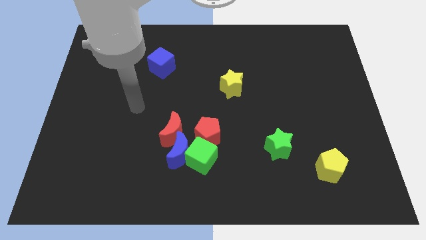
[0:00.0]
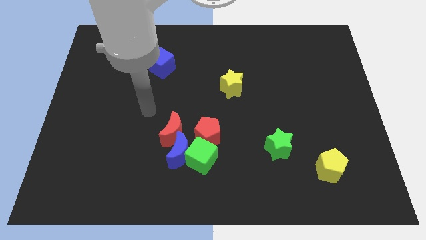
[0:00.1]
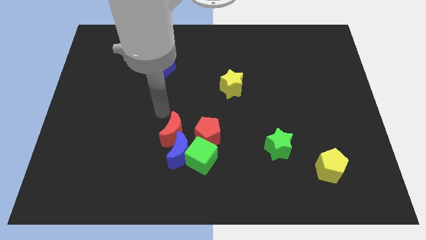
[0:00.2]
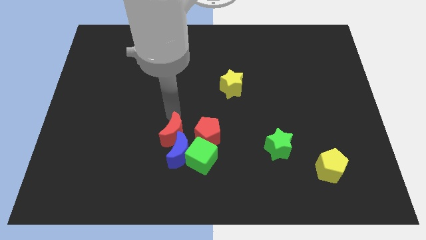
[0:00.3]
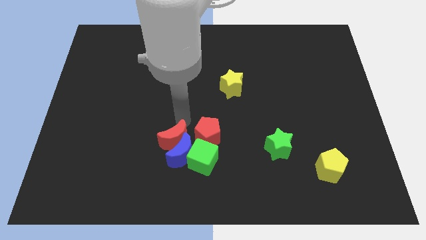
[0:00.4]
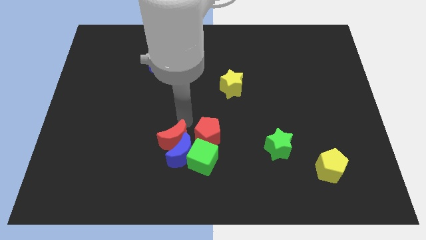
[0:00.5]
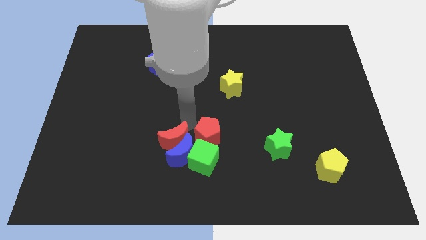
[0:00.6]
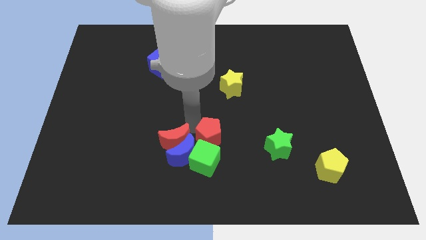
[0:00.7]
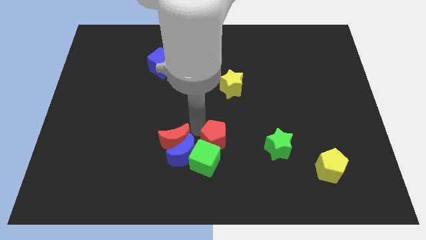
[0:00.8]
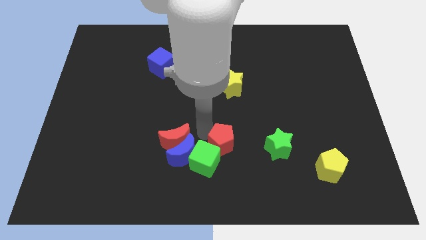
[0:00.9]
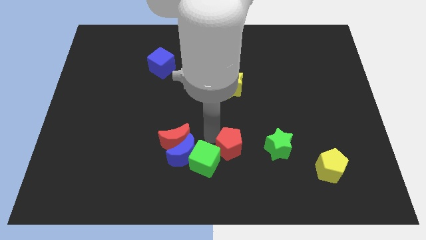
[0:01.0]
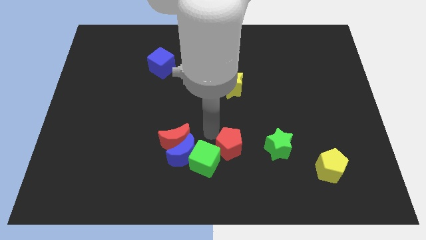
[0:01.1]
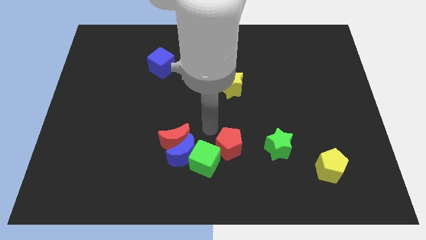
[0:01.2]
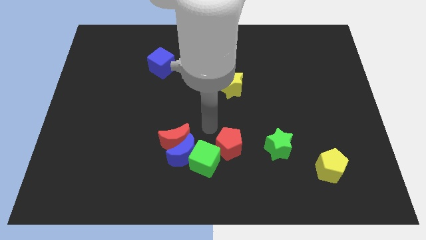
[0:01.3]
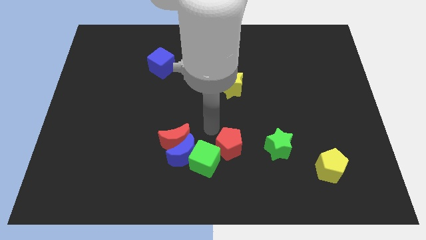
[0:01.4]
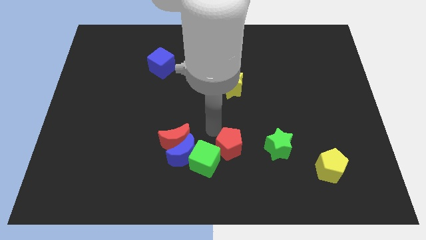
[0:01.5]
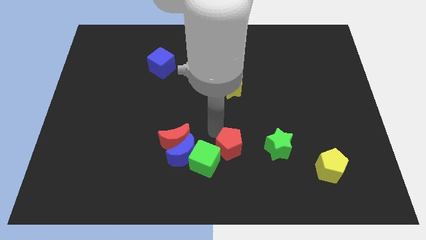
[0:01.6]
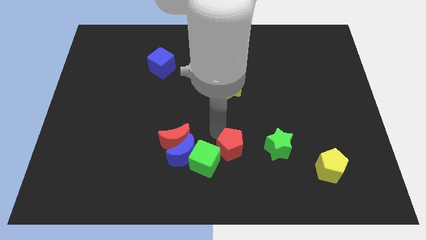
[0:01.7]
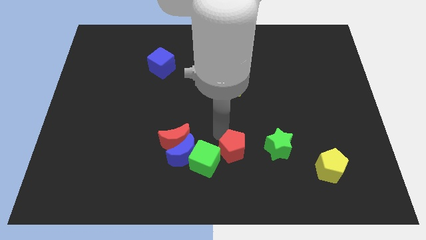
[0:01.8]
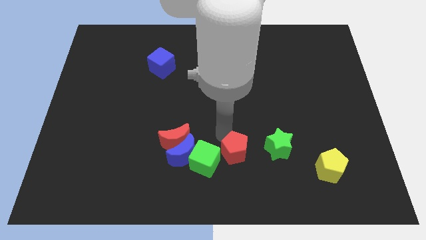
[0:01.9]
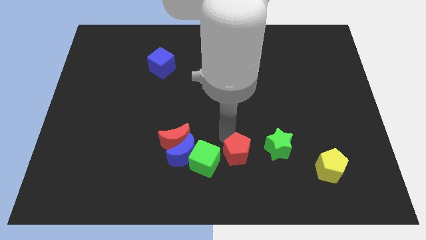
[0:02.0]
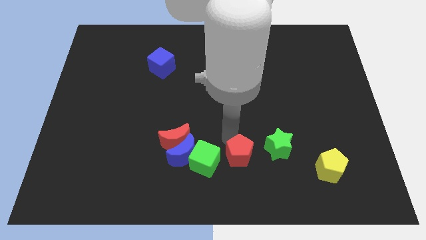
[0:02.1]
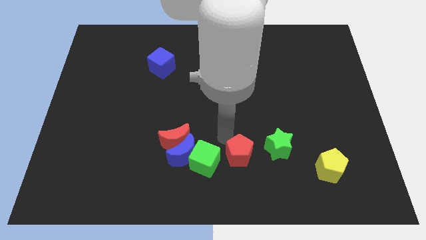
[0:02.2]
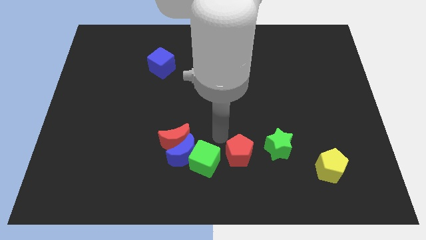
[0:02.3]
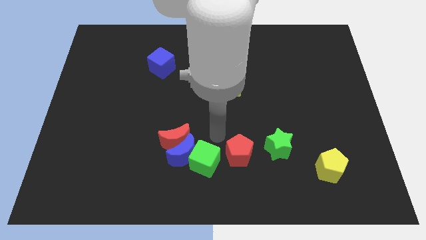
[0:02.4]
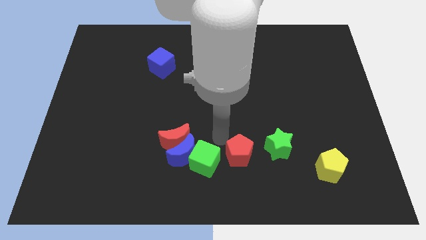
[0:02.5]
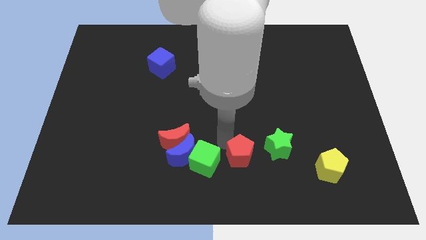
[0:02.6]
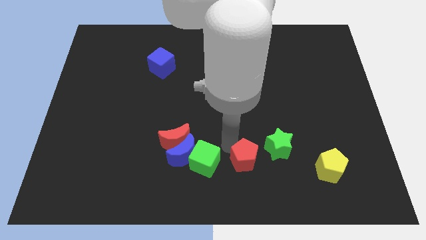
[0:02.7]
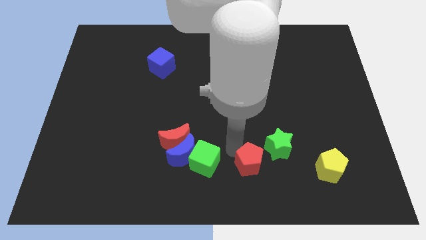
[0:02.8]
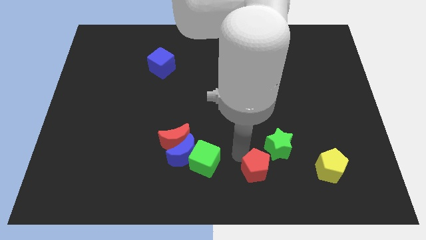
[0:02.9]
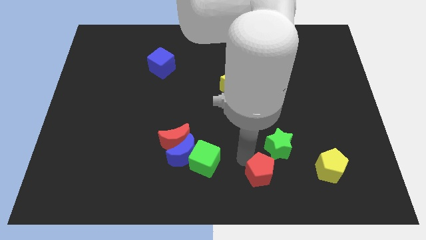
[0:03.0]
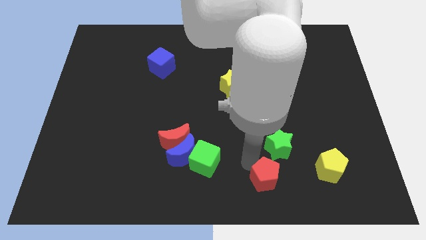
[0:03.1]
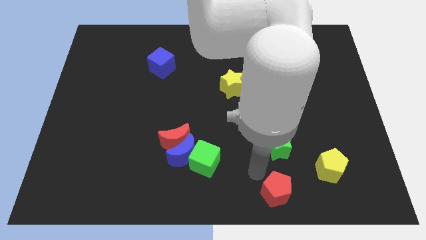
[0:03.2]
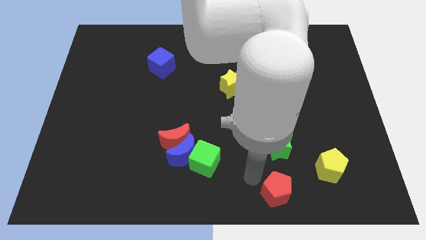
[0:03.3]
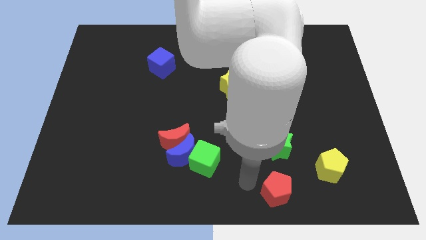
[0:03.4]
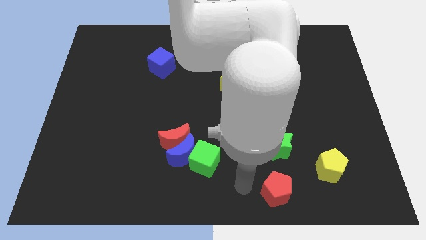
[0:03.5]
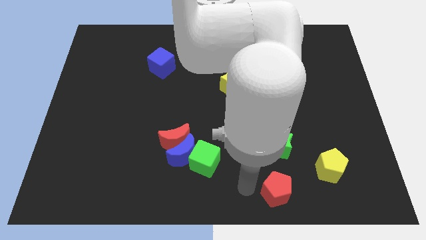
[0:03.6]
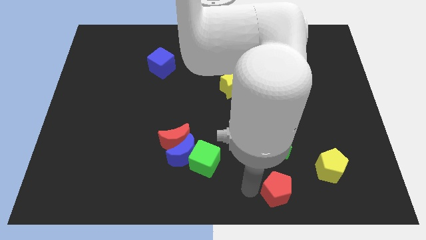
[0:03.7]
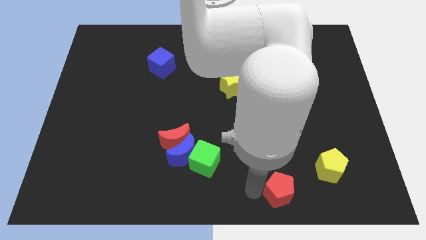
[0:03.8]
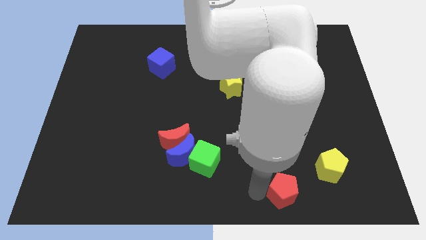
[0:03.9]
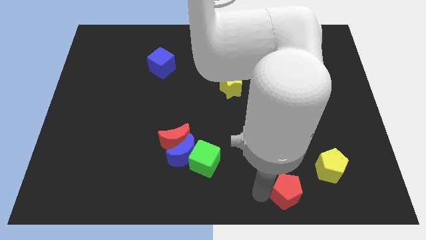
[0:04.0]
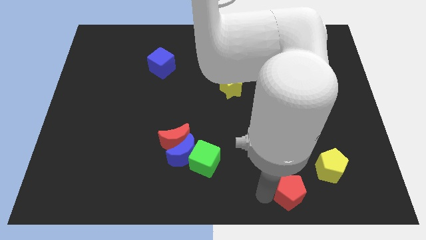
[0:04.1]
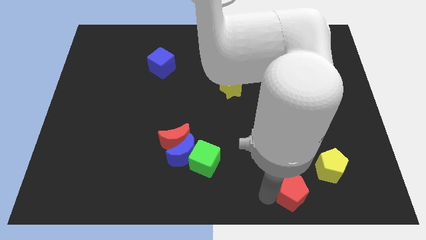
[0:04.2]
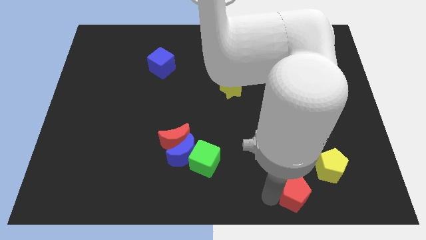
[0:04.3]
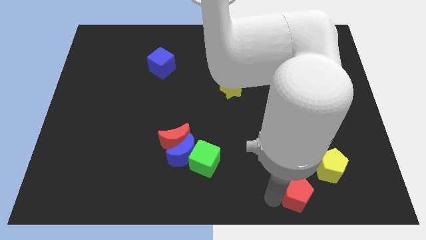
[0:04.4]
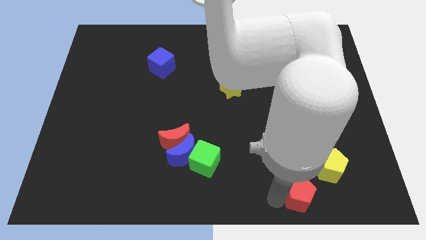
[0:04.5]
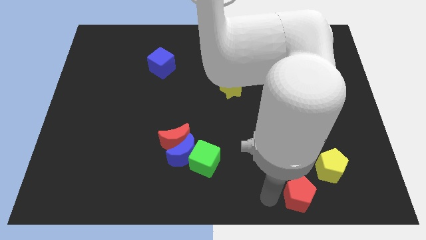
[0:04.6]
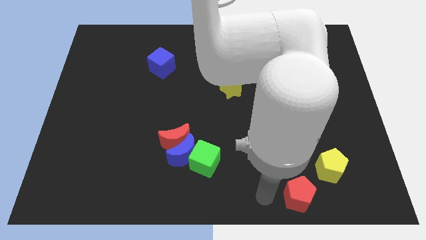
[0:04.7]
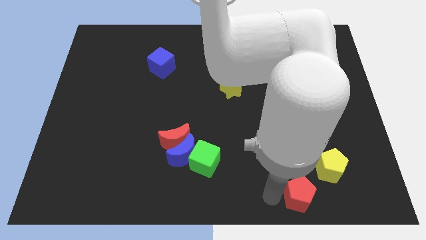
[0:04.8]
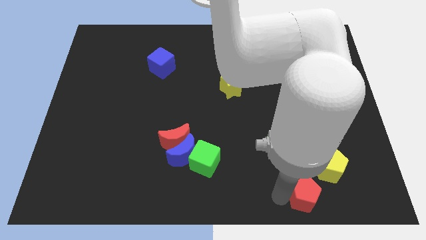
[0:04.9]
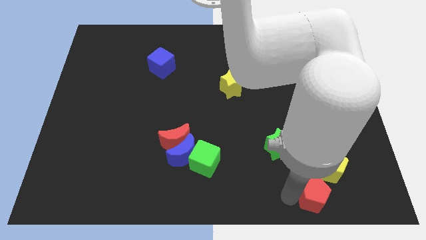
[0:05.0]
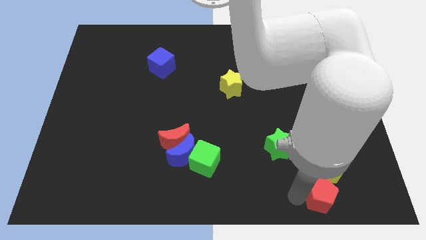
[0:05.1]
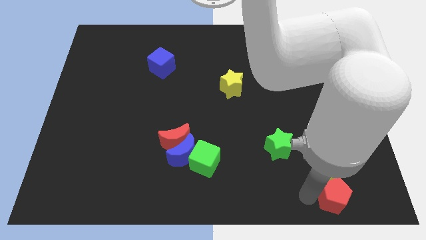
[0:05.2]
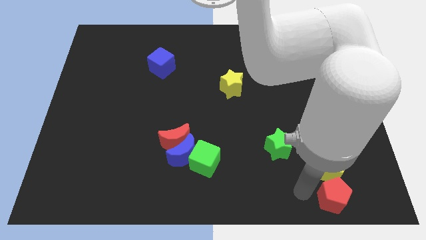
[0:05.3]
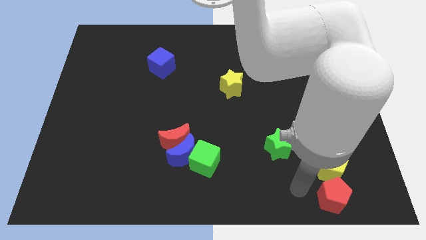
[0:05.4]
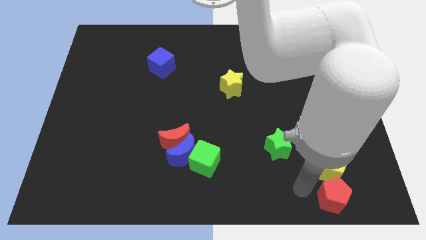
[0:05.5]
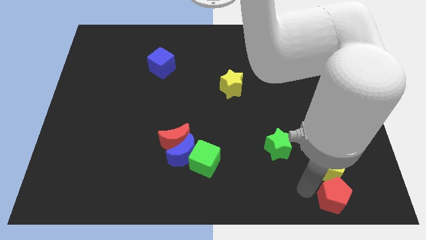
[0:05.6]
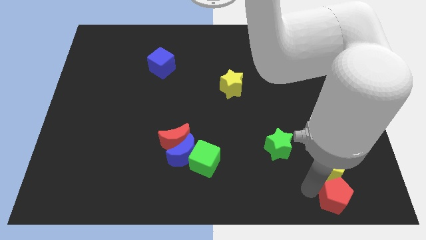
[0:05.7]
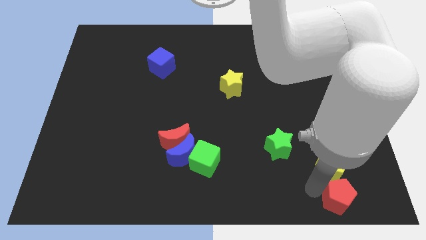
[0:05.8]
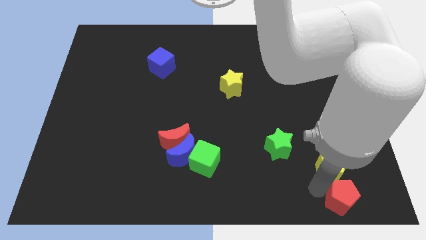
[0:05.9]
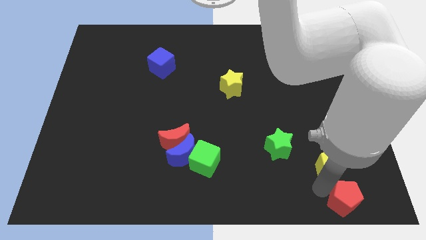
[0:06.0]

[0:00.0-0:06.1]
move the red pentagon to the bottom right of the board
